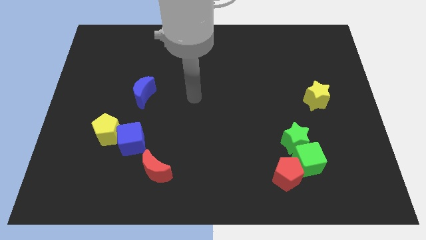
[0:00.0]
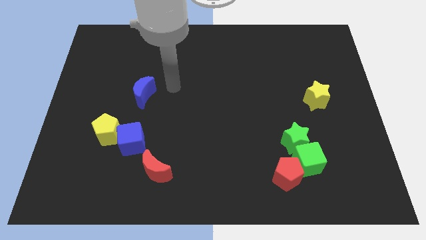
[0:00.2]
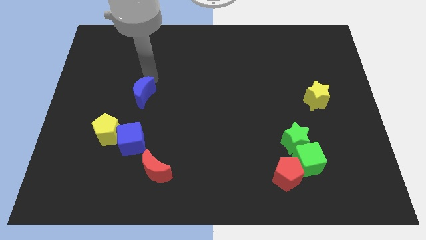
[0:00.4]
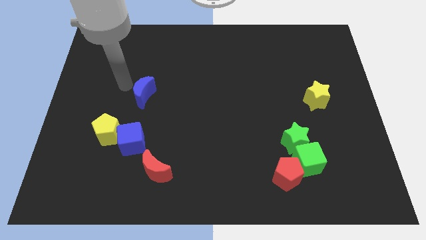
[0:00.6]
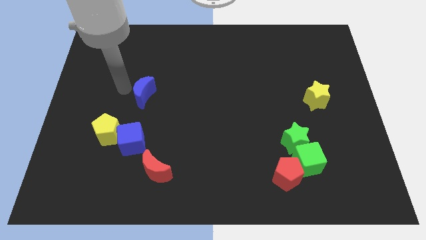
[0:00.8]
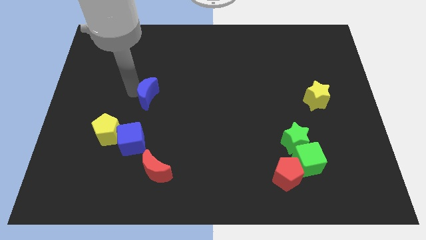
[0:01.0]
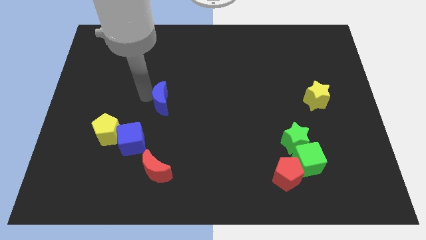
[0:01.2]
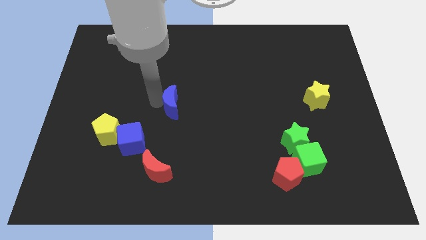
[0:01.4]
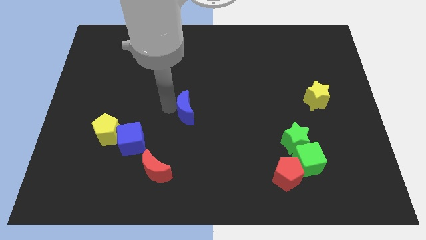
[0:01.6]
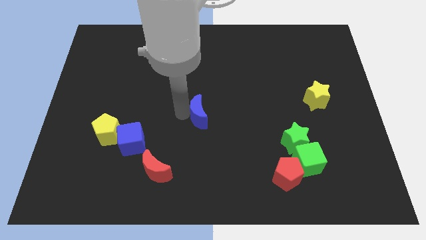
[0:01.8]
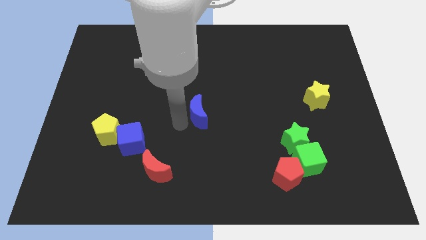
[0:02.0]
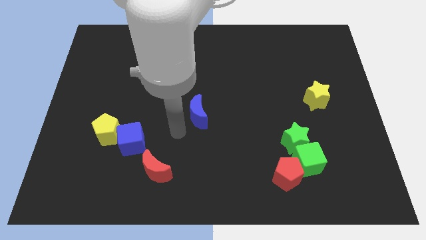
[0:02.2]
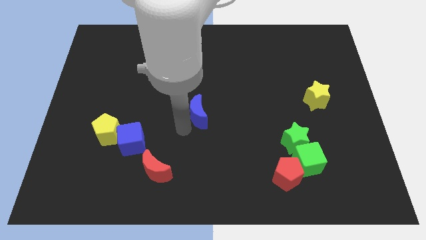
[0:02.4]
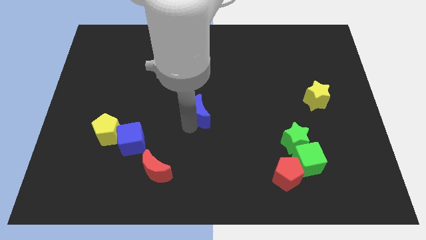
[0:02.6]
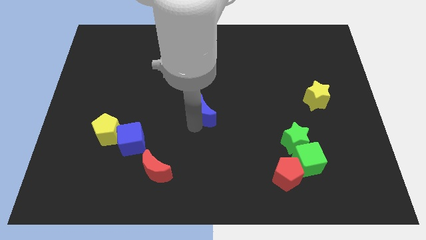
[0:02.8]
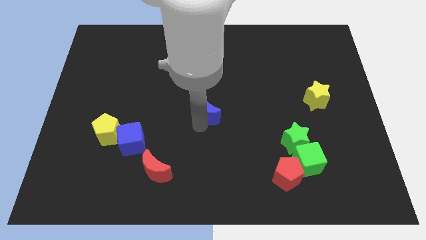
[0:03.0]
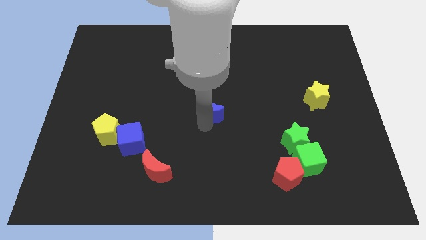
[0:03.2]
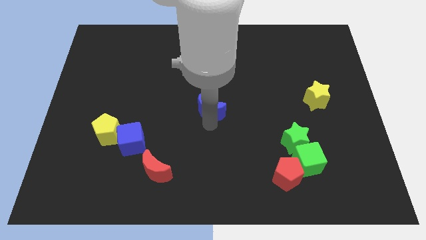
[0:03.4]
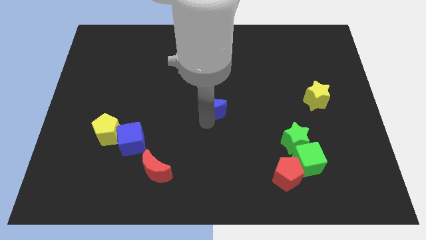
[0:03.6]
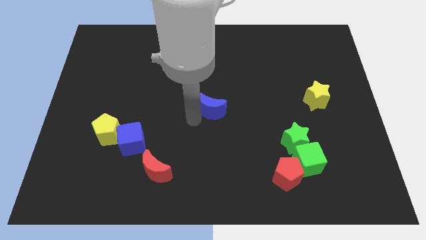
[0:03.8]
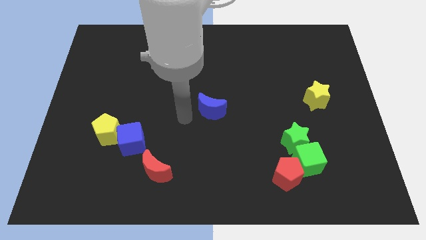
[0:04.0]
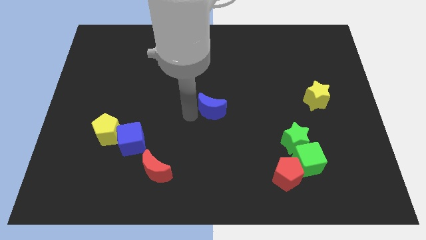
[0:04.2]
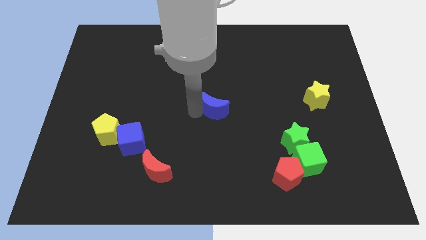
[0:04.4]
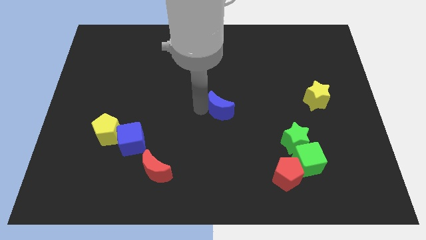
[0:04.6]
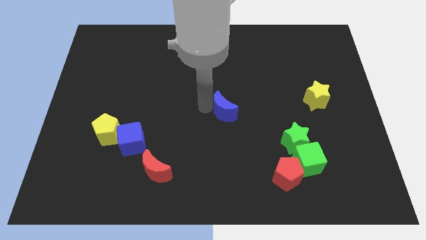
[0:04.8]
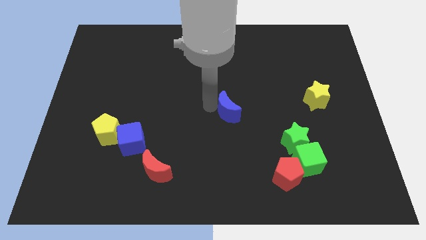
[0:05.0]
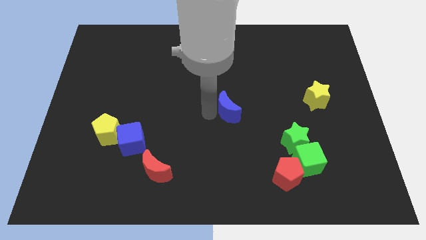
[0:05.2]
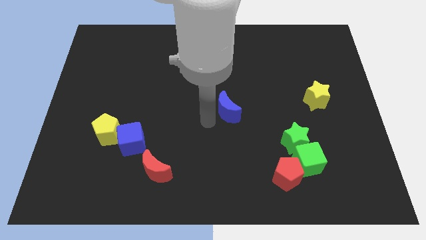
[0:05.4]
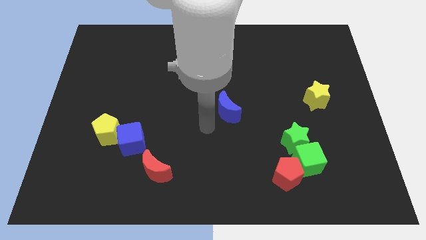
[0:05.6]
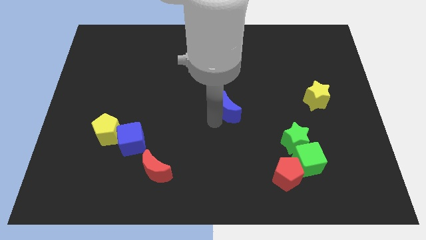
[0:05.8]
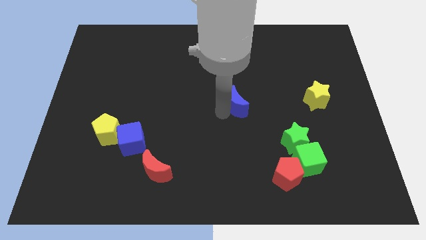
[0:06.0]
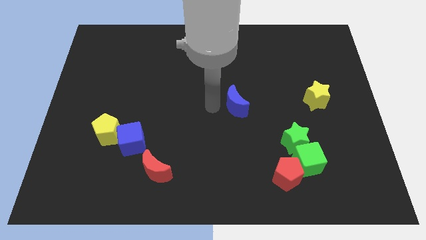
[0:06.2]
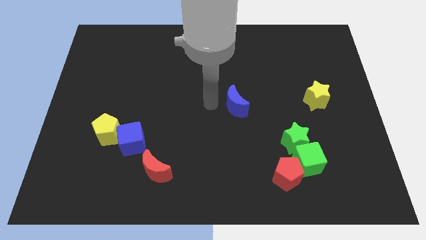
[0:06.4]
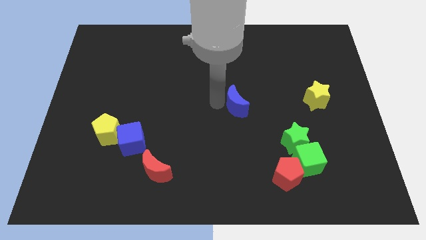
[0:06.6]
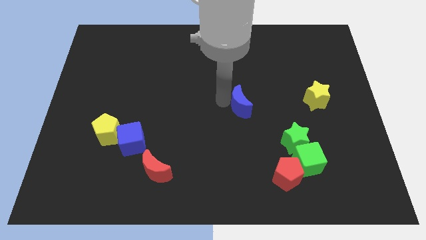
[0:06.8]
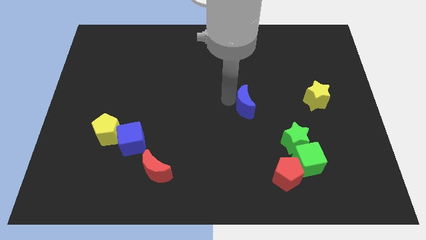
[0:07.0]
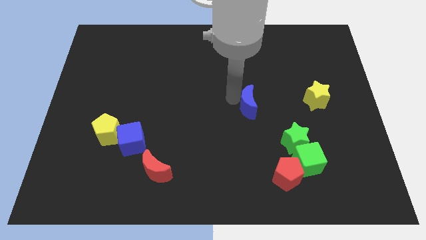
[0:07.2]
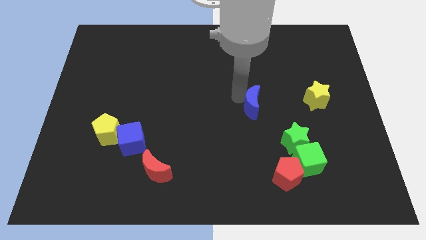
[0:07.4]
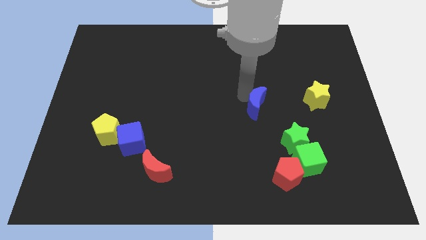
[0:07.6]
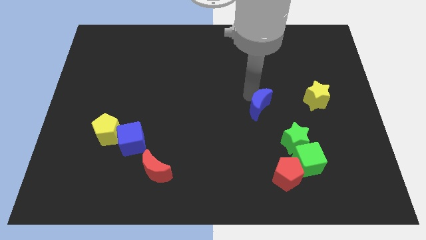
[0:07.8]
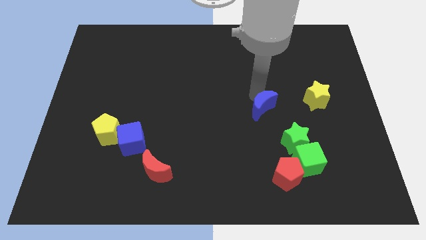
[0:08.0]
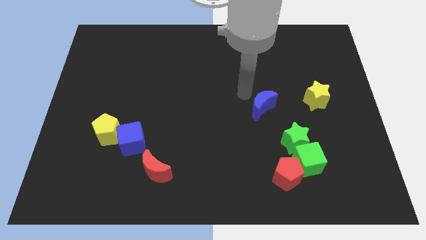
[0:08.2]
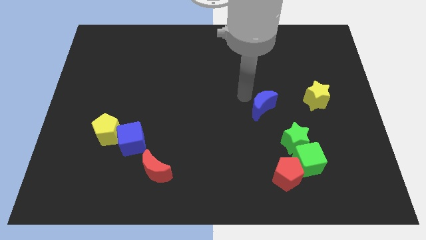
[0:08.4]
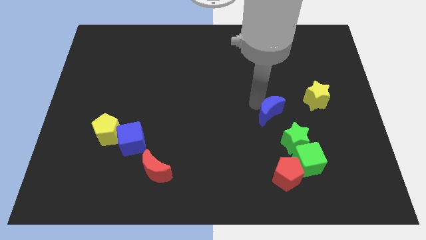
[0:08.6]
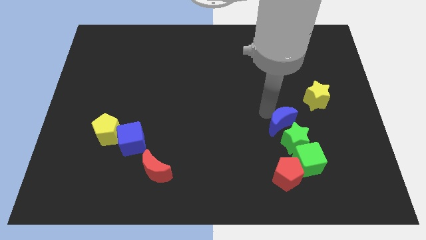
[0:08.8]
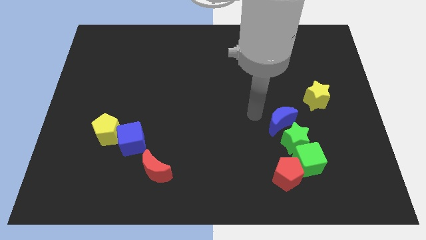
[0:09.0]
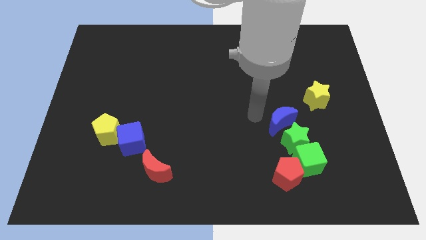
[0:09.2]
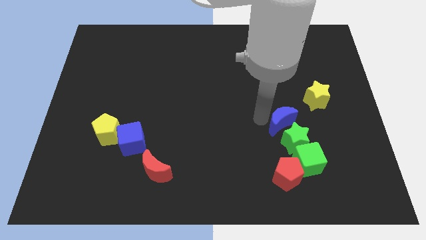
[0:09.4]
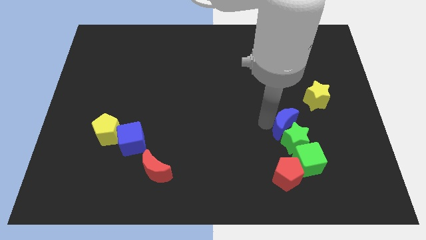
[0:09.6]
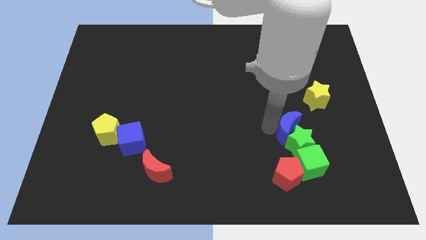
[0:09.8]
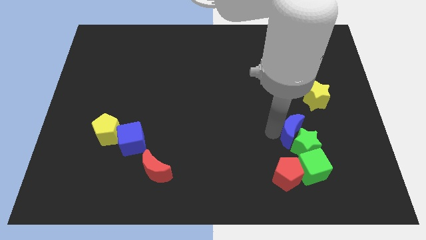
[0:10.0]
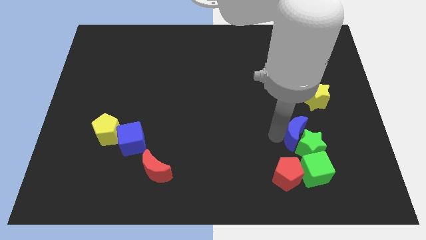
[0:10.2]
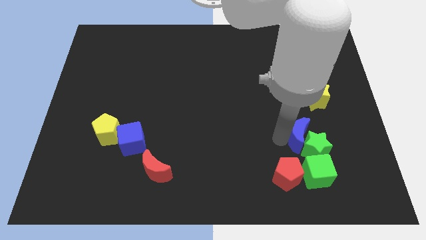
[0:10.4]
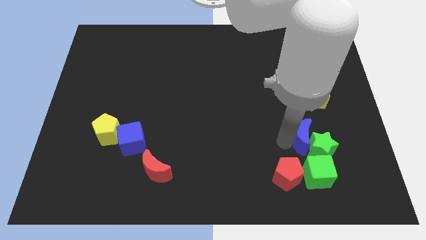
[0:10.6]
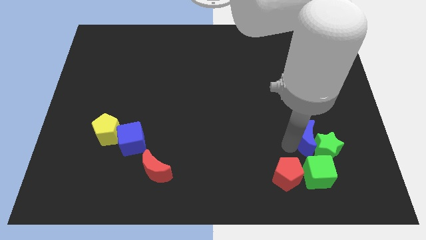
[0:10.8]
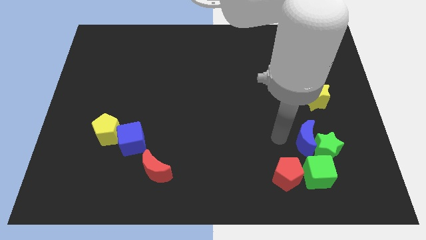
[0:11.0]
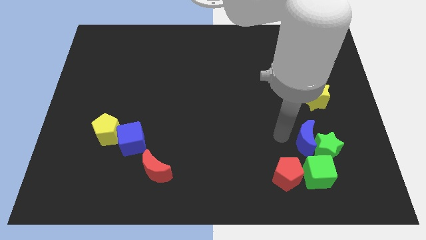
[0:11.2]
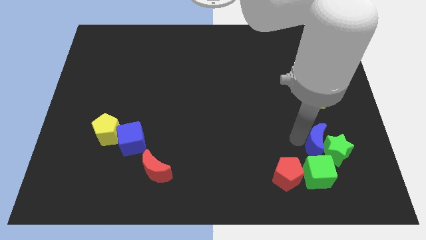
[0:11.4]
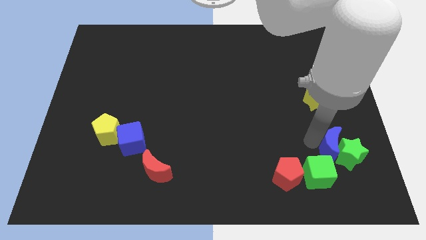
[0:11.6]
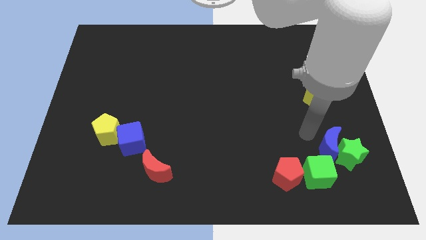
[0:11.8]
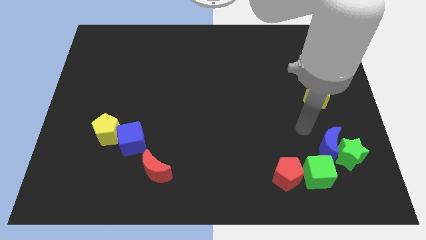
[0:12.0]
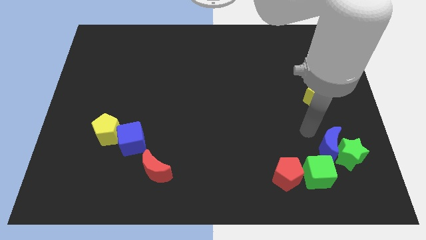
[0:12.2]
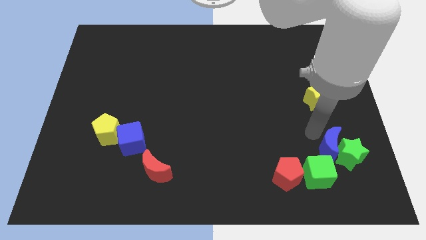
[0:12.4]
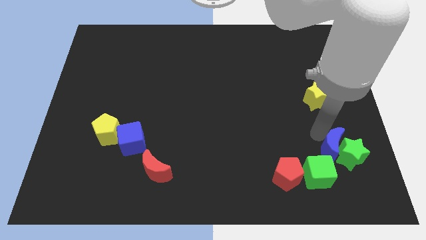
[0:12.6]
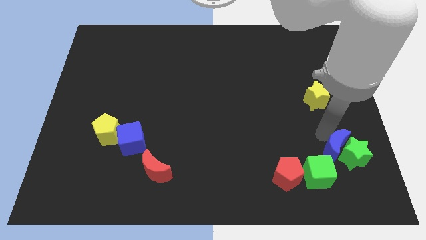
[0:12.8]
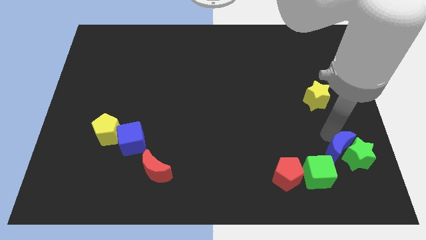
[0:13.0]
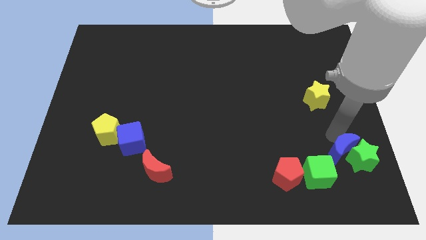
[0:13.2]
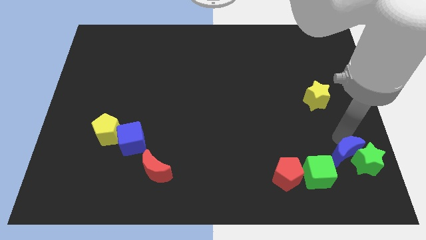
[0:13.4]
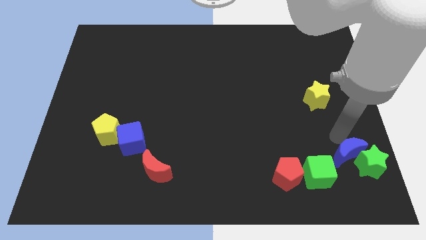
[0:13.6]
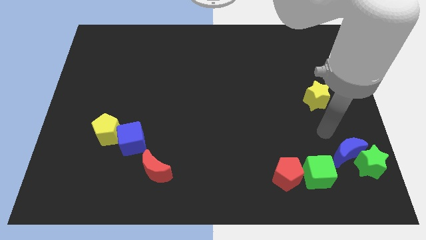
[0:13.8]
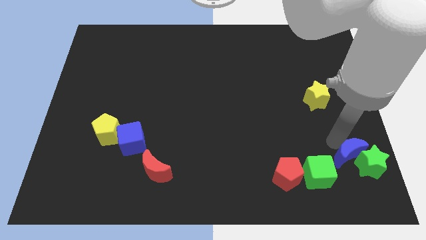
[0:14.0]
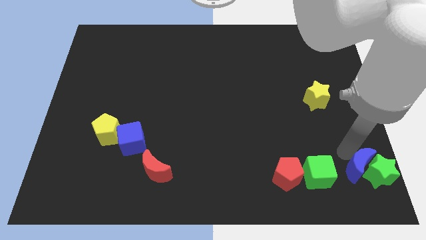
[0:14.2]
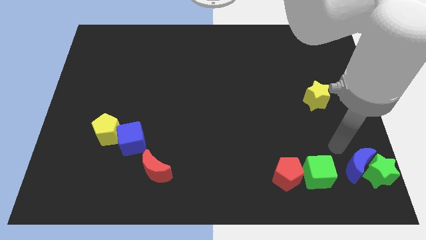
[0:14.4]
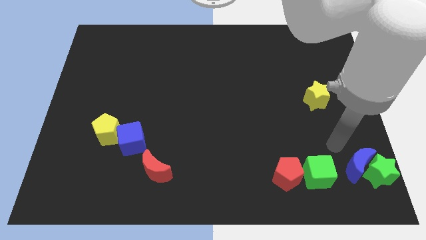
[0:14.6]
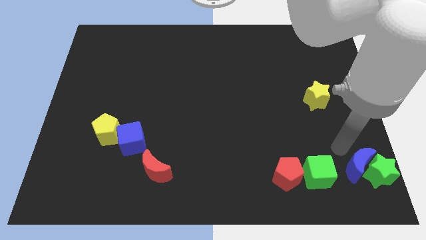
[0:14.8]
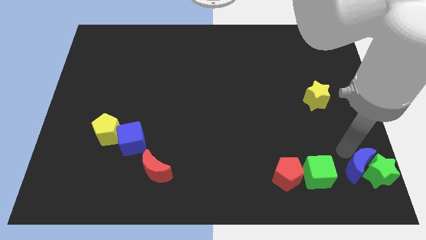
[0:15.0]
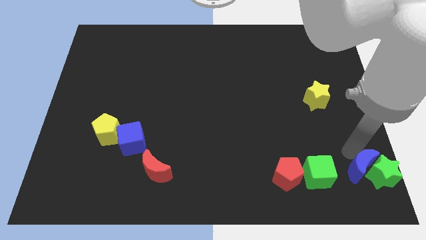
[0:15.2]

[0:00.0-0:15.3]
put the blue moon to the lower right corner
